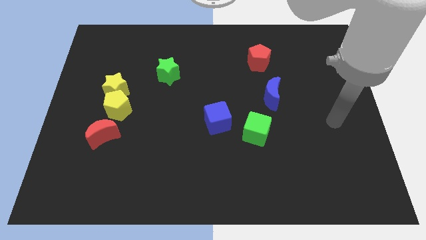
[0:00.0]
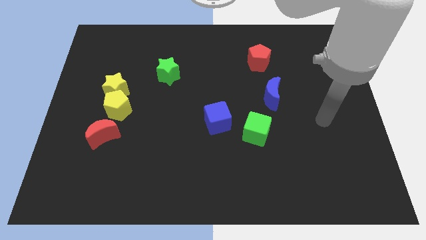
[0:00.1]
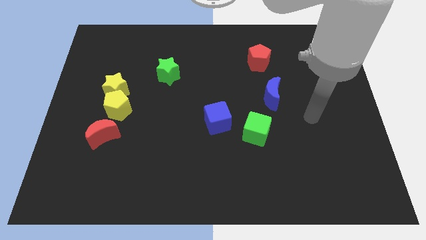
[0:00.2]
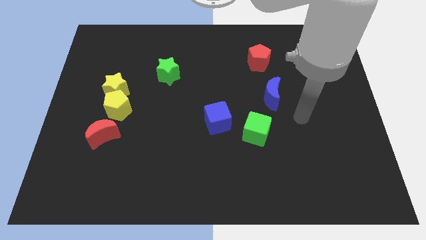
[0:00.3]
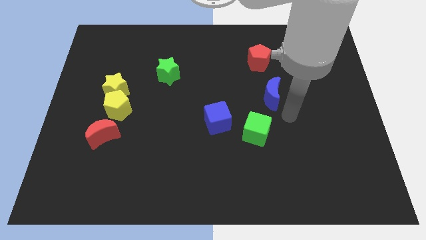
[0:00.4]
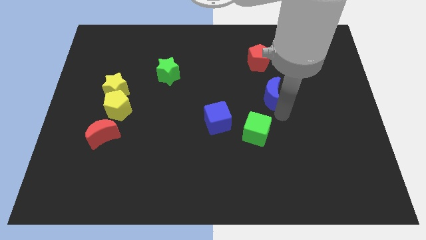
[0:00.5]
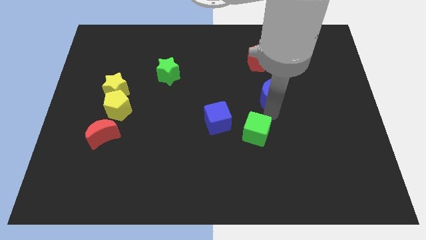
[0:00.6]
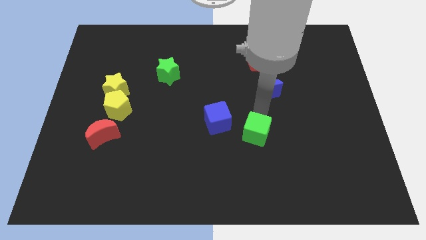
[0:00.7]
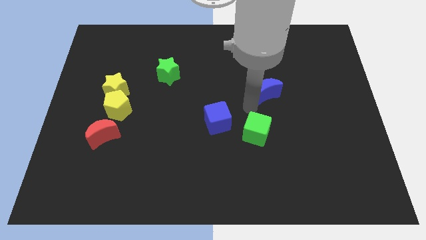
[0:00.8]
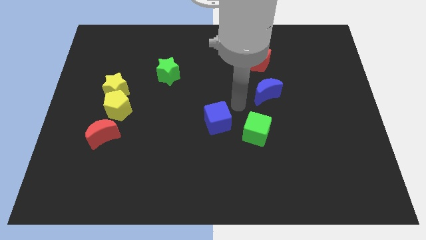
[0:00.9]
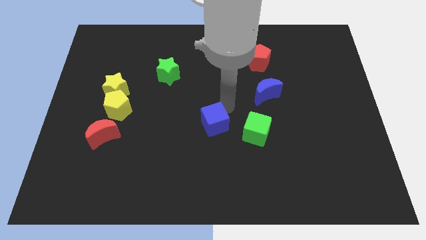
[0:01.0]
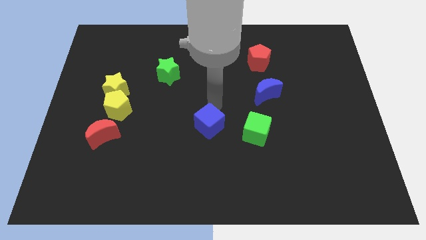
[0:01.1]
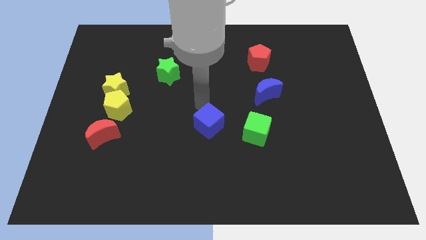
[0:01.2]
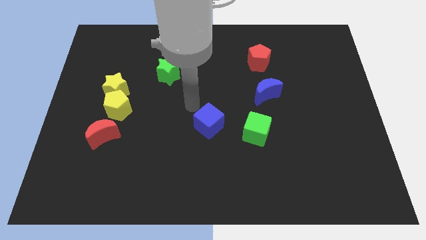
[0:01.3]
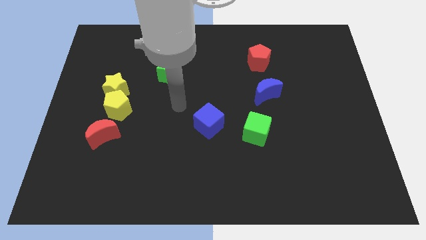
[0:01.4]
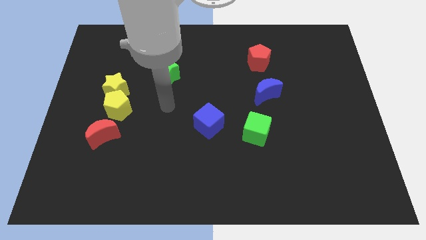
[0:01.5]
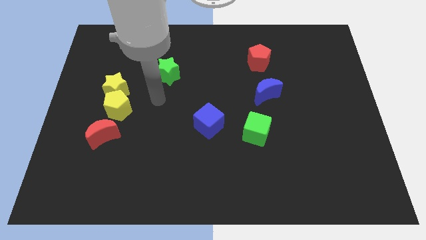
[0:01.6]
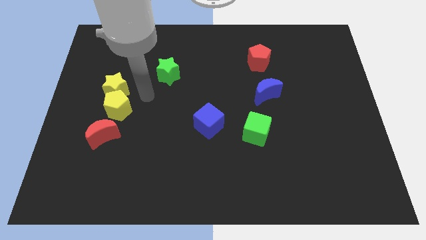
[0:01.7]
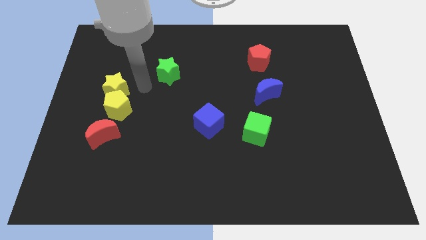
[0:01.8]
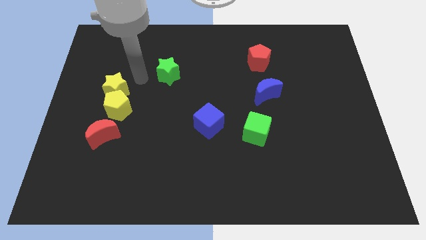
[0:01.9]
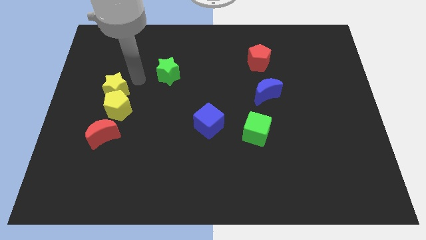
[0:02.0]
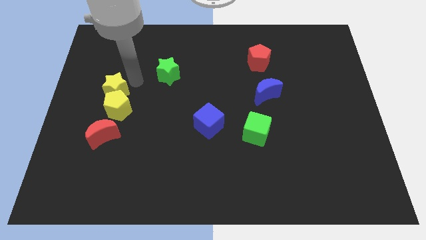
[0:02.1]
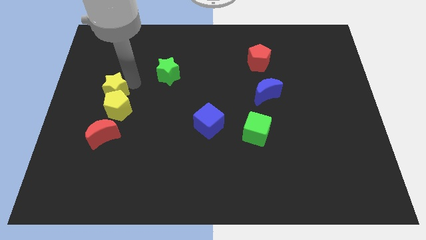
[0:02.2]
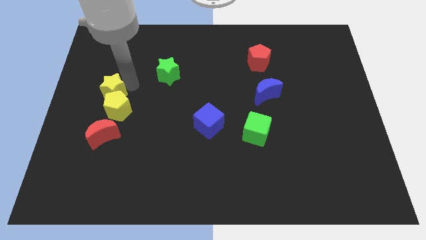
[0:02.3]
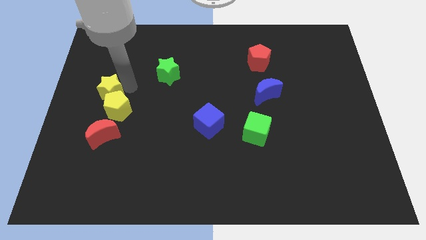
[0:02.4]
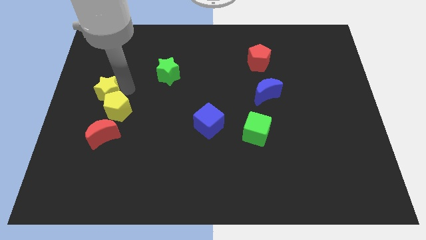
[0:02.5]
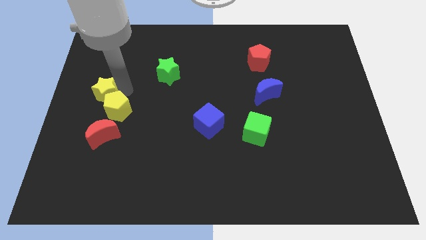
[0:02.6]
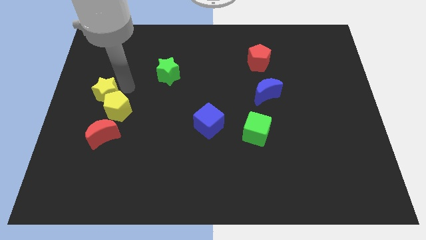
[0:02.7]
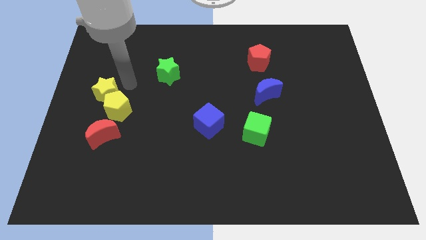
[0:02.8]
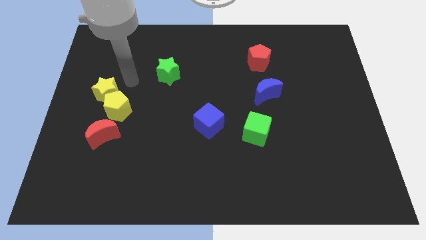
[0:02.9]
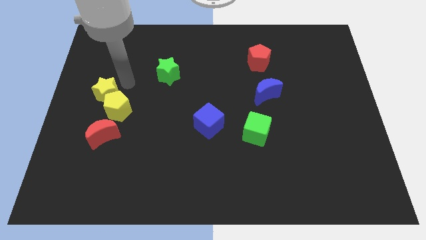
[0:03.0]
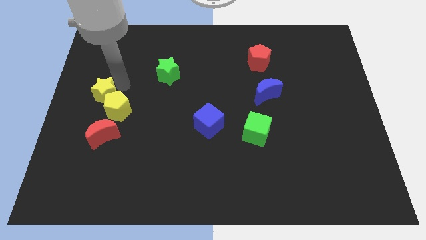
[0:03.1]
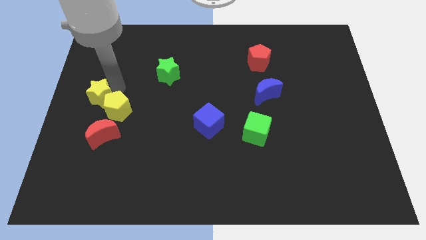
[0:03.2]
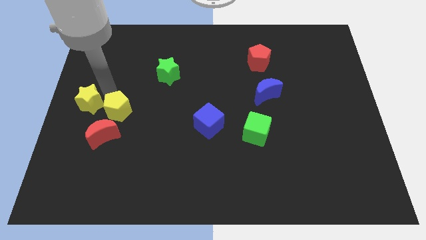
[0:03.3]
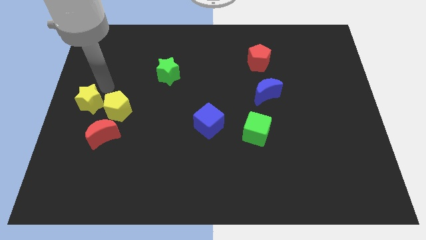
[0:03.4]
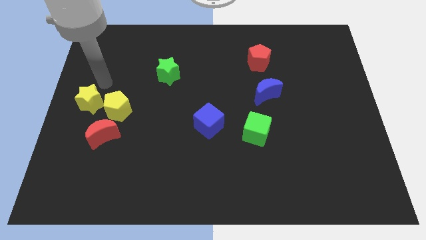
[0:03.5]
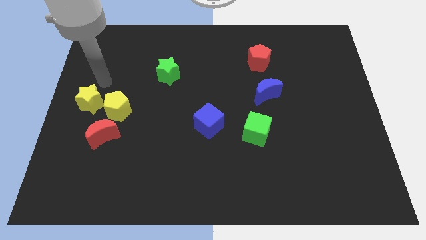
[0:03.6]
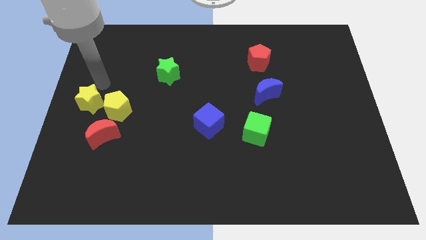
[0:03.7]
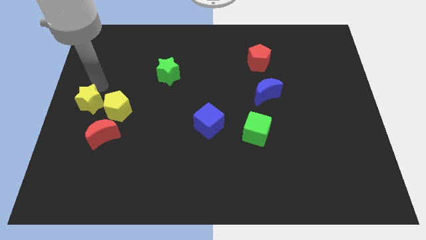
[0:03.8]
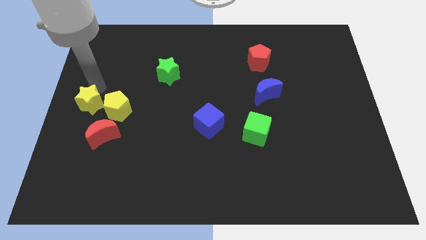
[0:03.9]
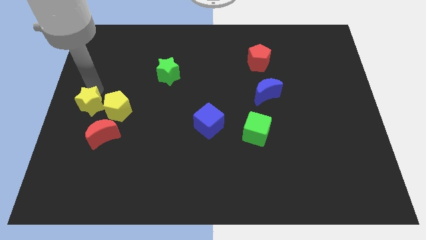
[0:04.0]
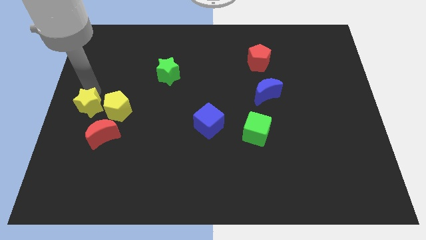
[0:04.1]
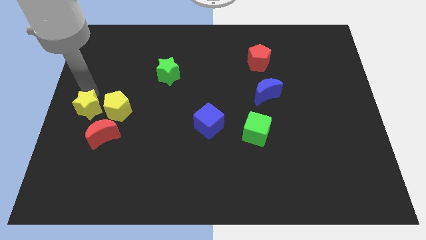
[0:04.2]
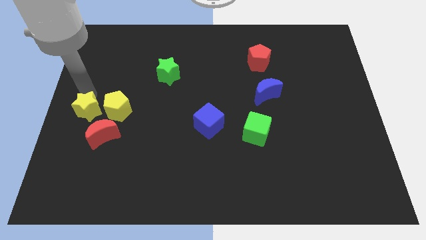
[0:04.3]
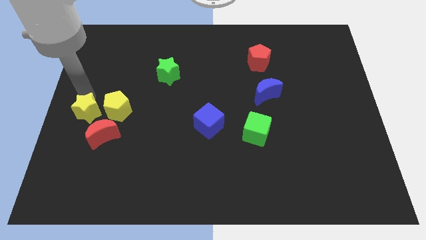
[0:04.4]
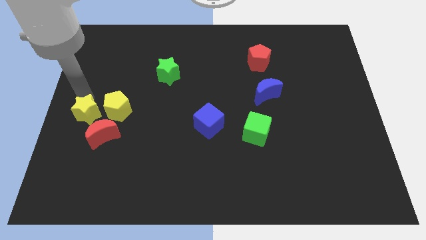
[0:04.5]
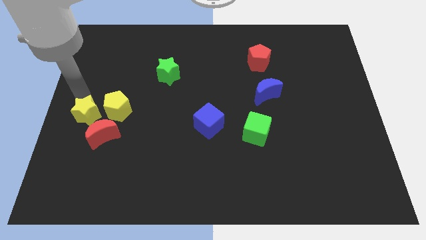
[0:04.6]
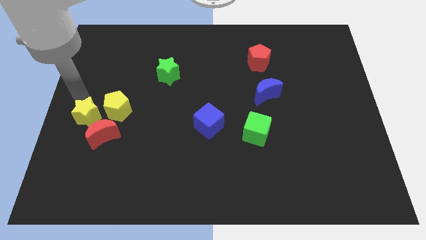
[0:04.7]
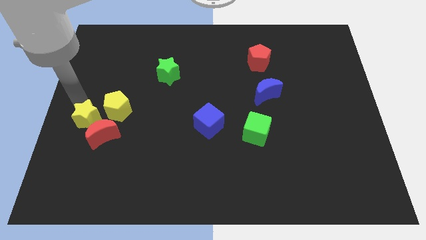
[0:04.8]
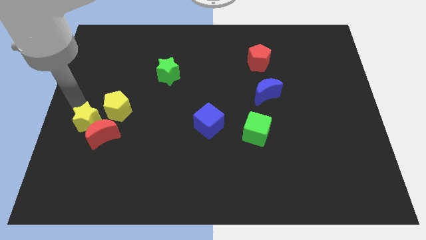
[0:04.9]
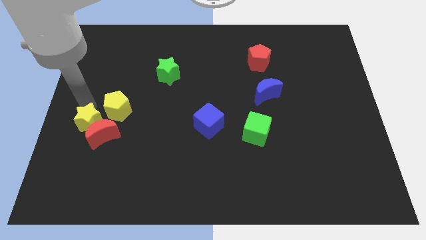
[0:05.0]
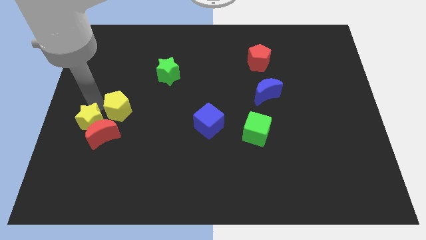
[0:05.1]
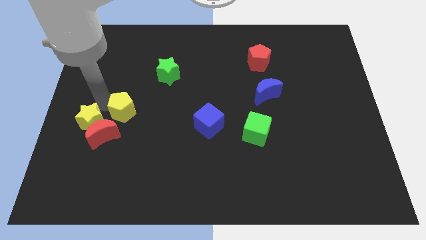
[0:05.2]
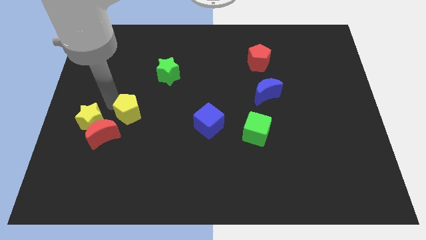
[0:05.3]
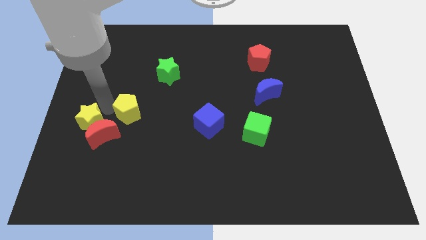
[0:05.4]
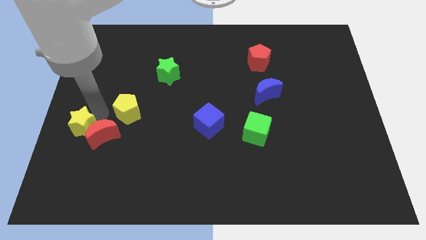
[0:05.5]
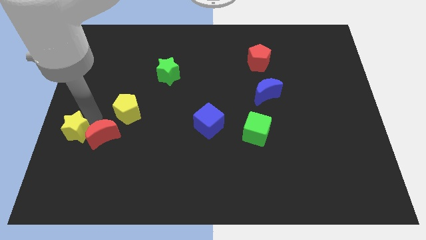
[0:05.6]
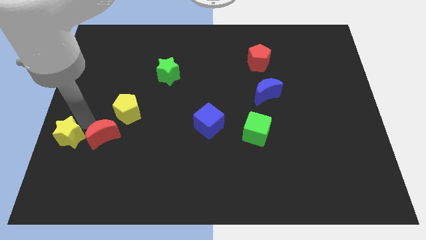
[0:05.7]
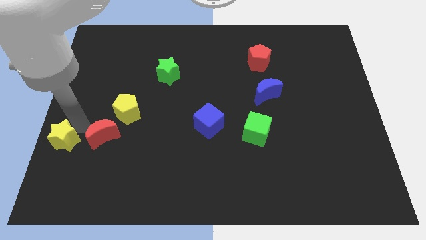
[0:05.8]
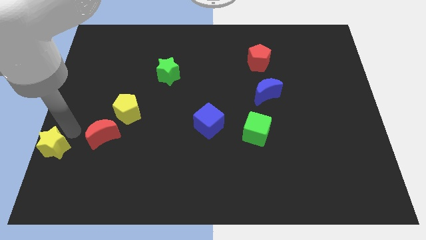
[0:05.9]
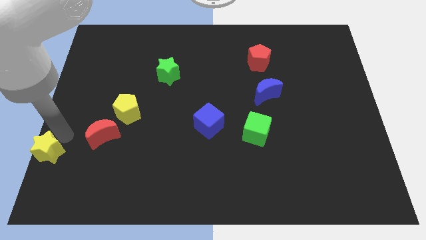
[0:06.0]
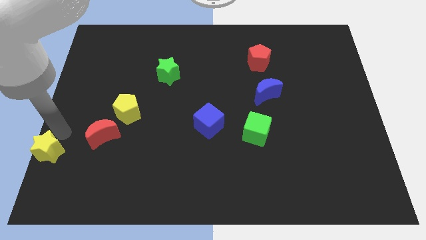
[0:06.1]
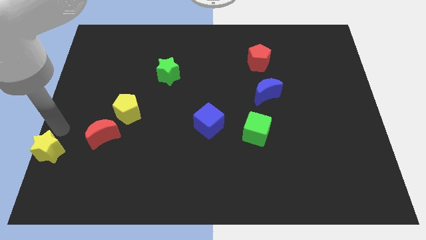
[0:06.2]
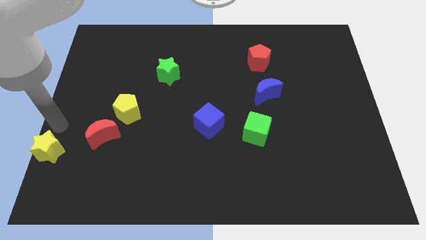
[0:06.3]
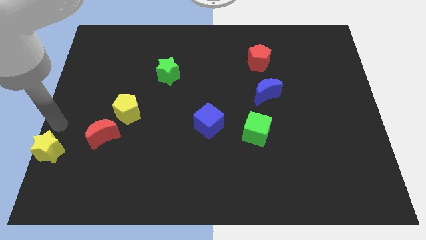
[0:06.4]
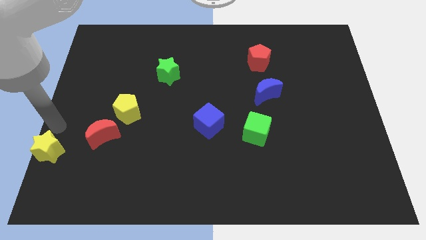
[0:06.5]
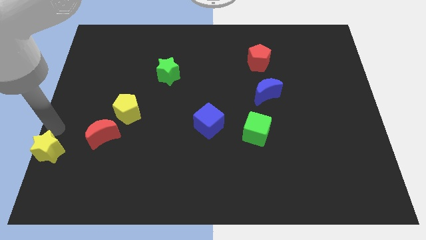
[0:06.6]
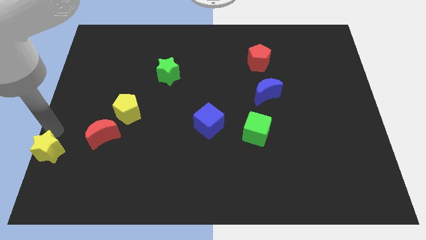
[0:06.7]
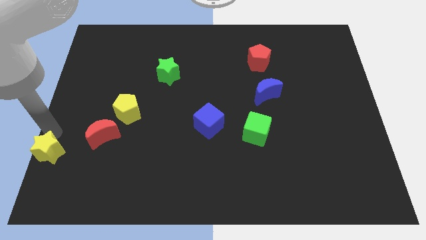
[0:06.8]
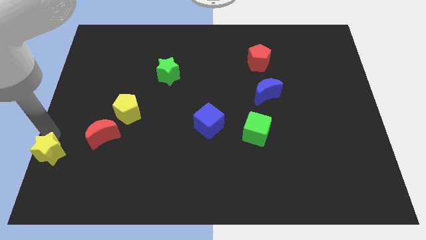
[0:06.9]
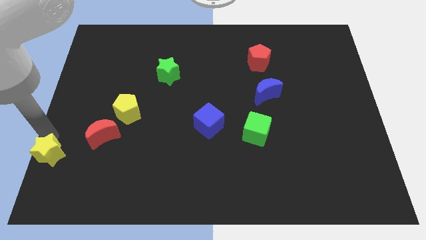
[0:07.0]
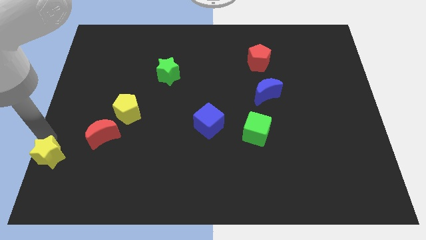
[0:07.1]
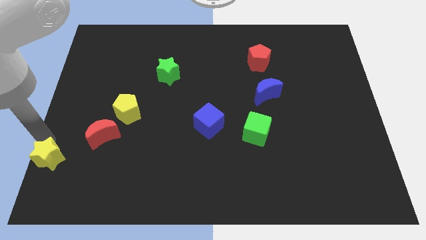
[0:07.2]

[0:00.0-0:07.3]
move the yellow star to the bottom left of the board
